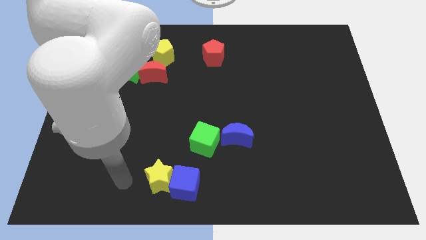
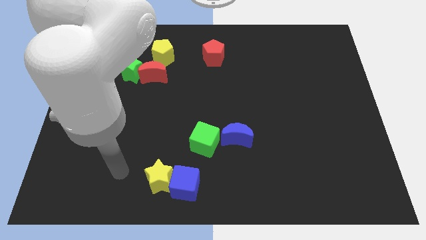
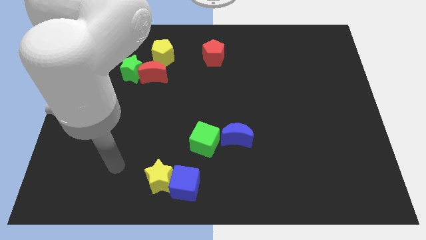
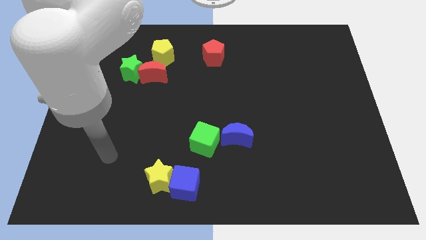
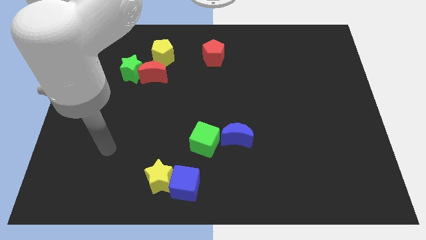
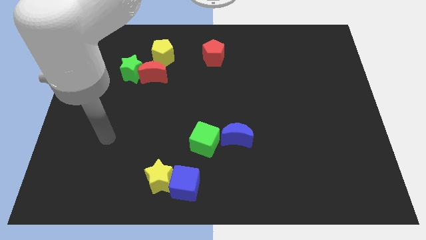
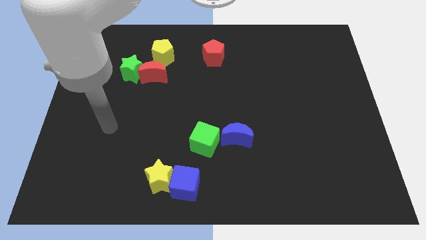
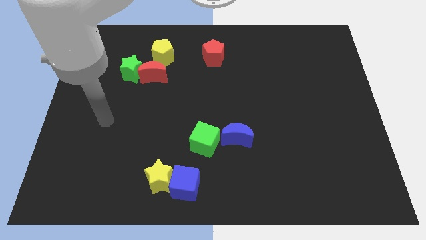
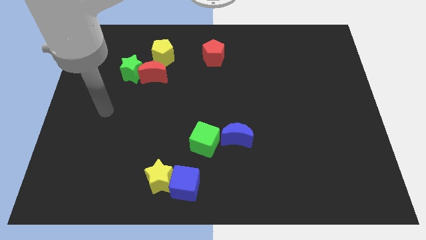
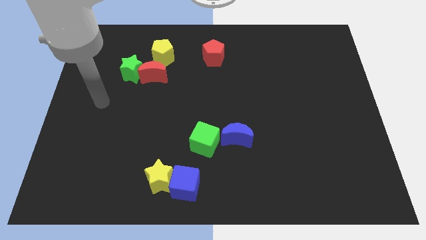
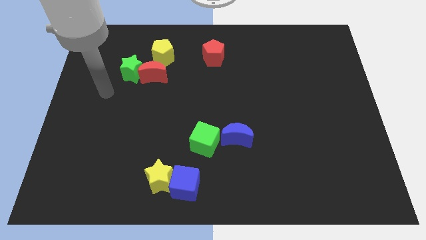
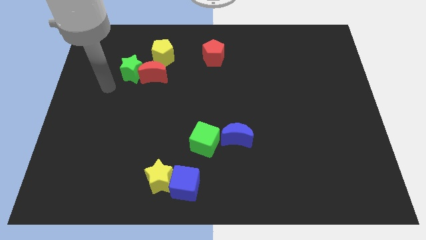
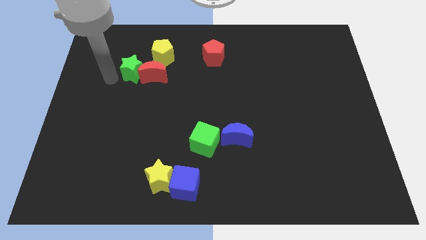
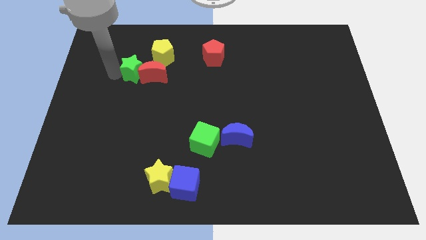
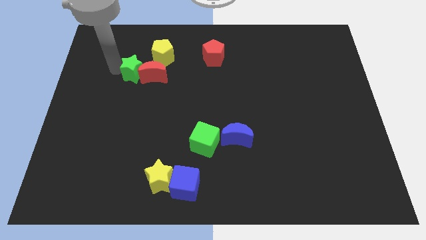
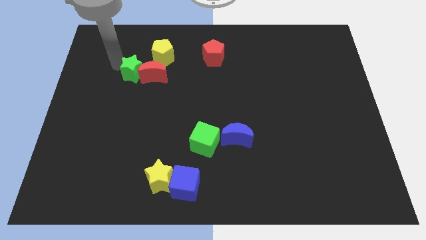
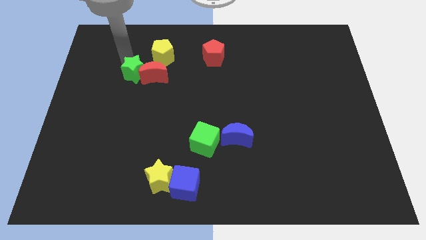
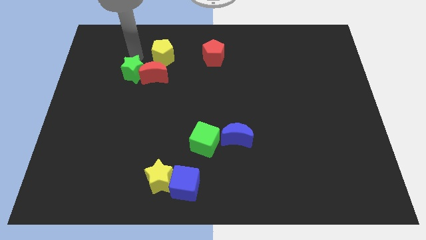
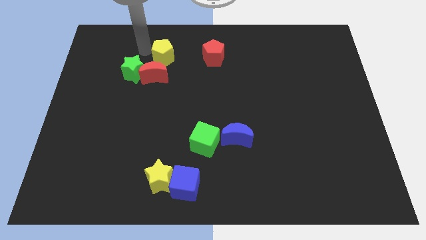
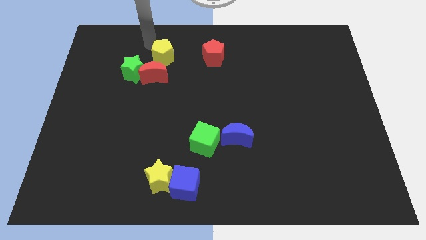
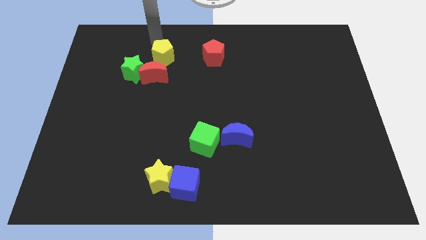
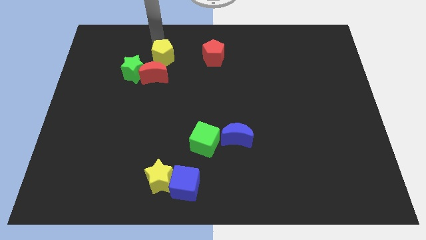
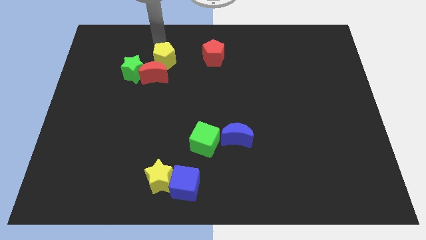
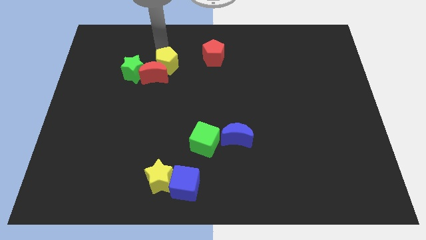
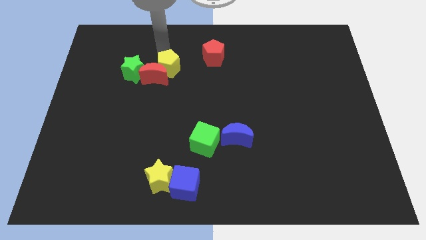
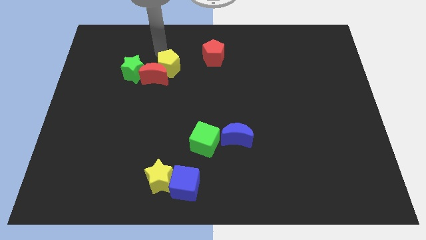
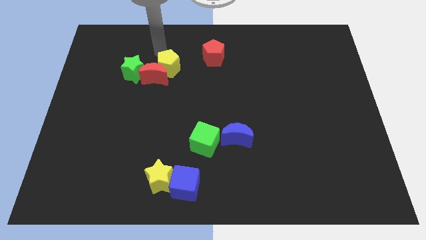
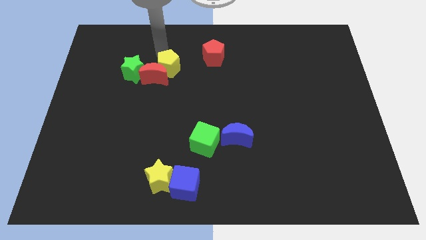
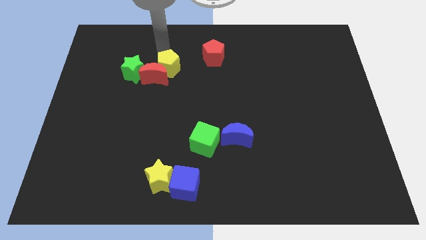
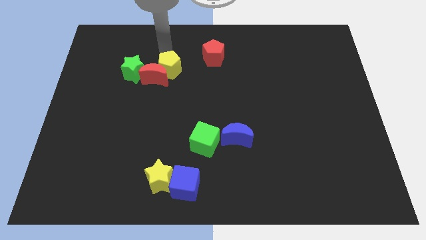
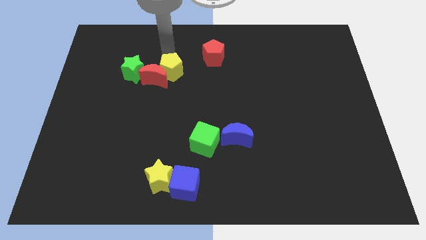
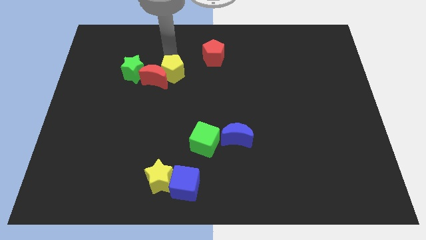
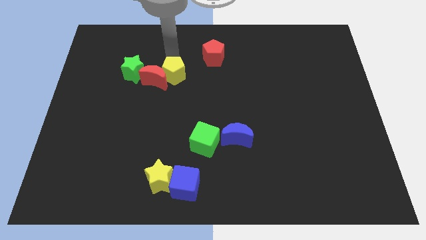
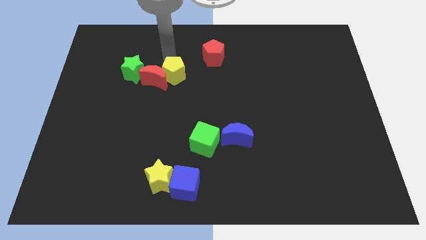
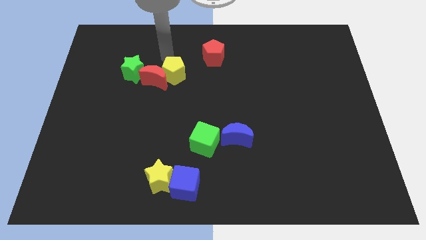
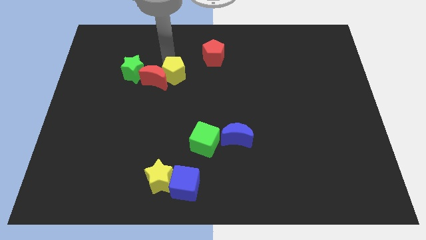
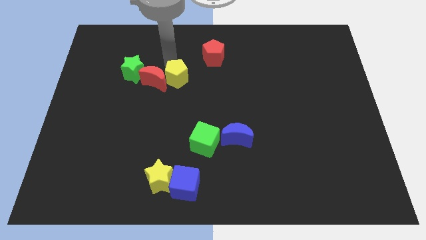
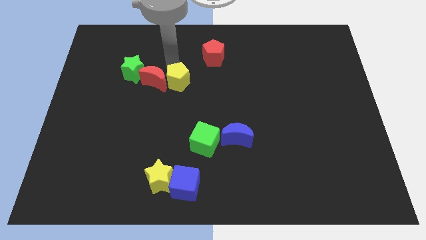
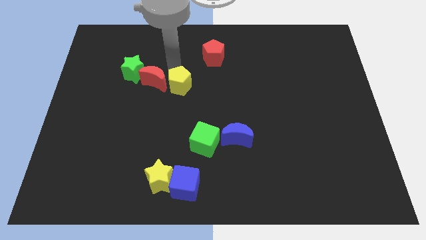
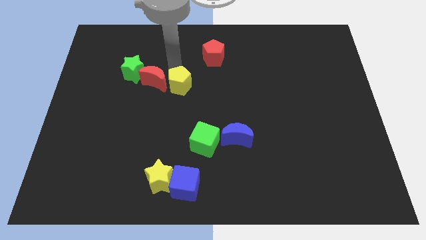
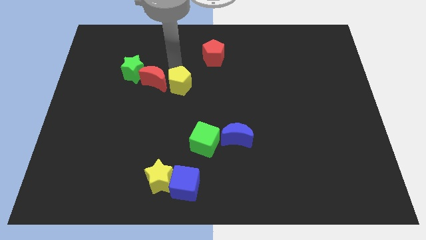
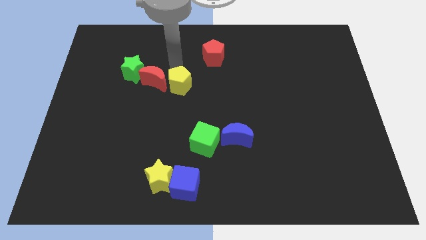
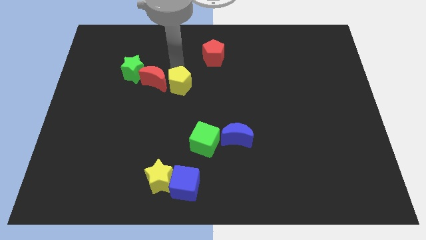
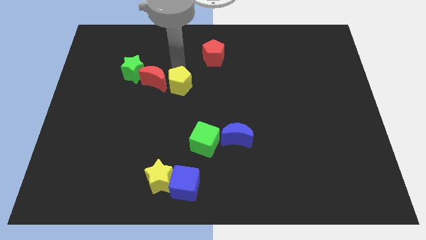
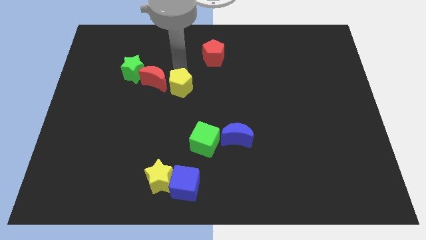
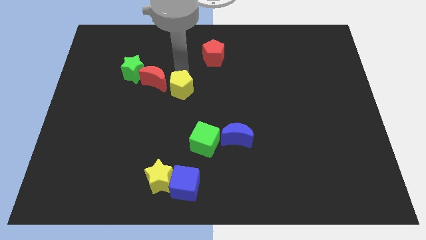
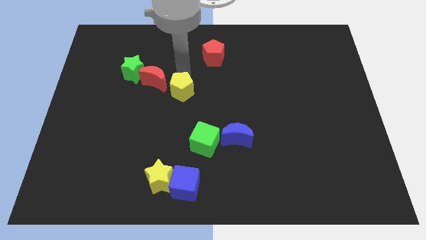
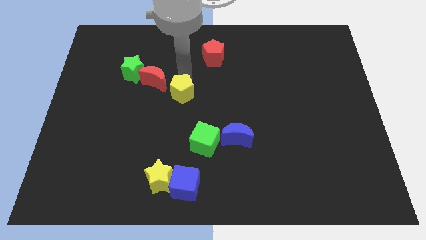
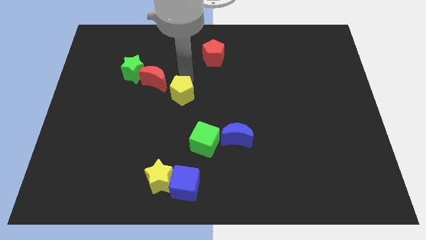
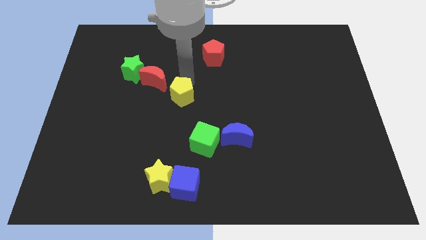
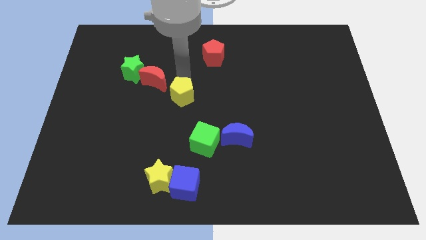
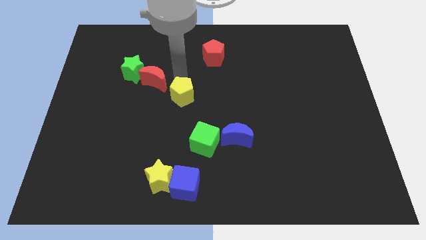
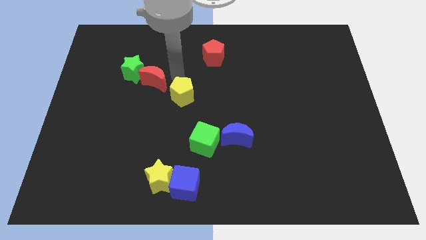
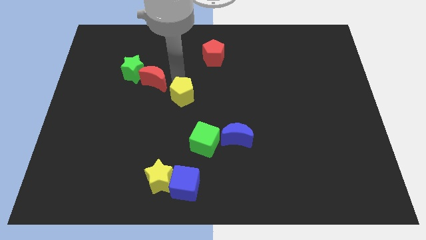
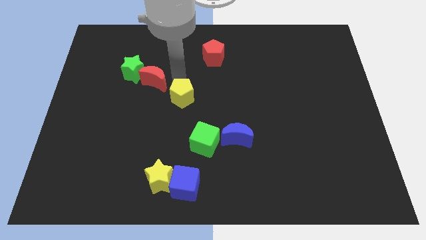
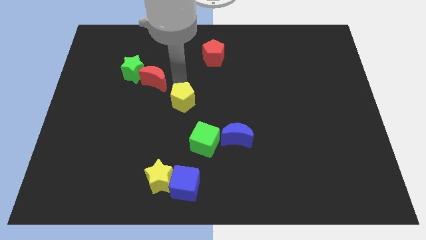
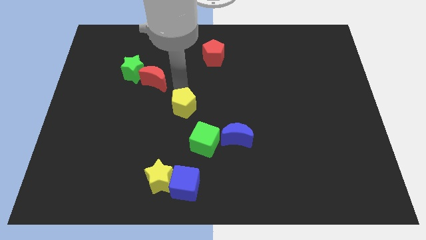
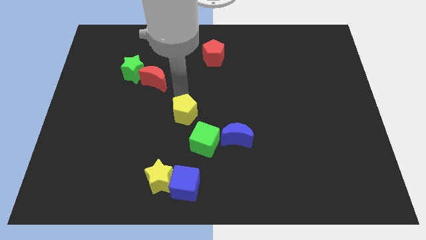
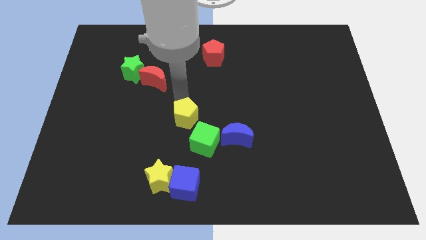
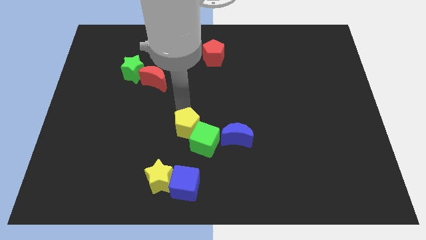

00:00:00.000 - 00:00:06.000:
push the yellow pentagon close to the green cube

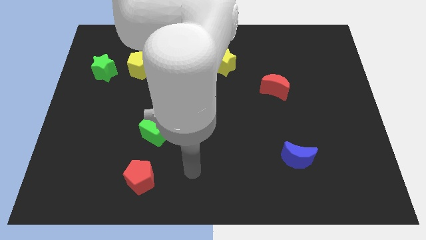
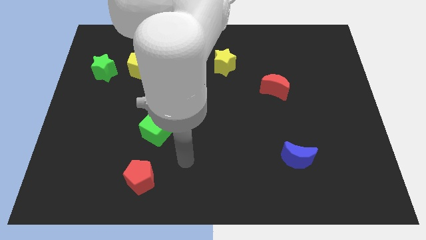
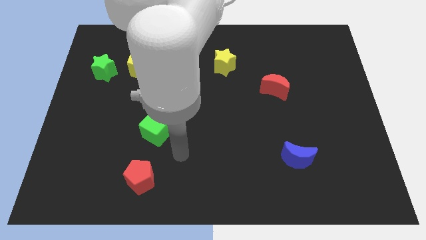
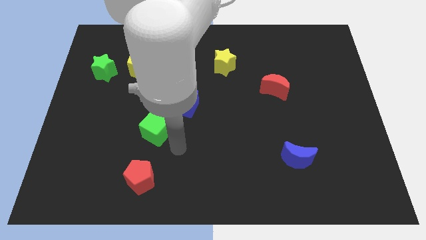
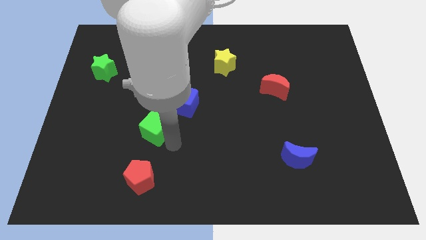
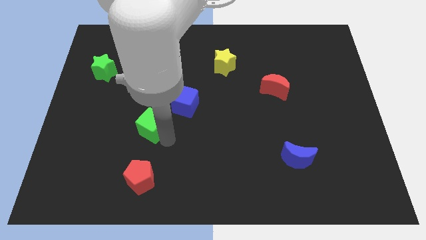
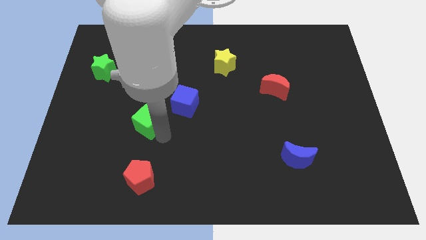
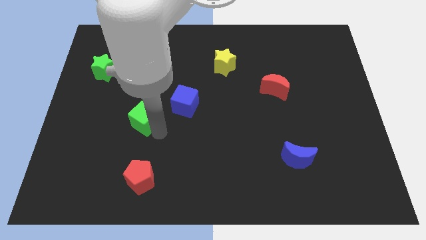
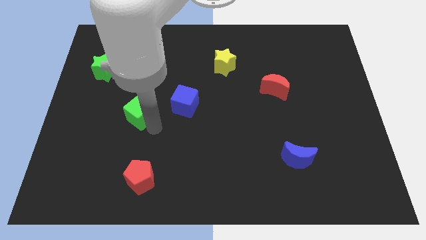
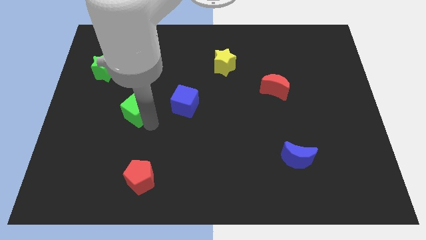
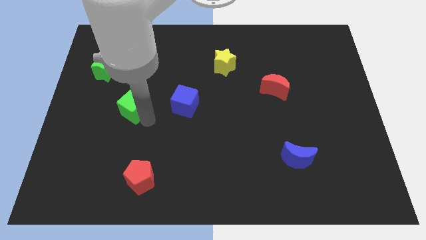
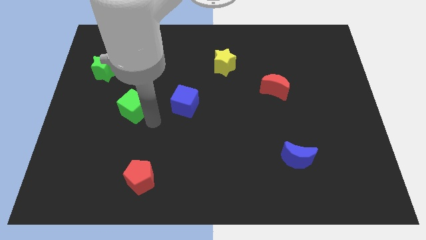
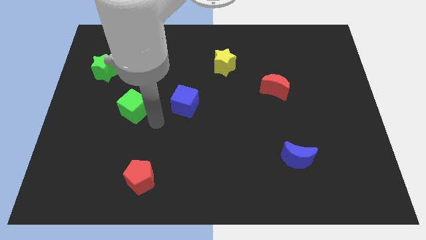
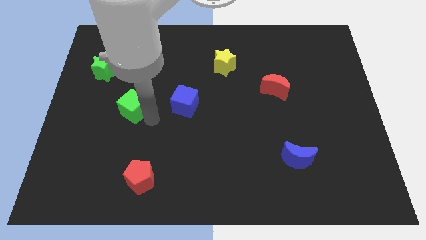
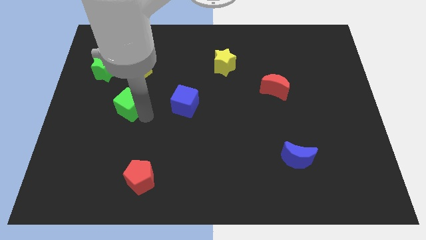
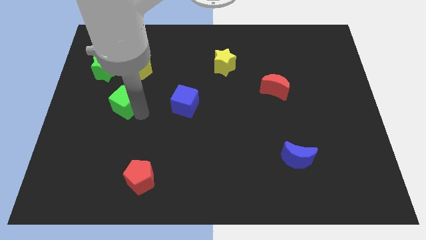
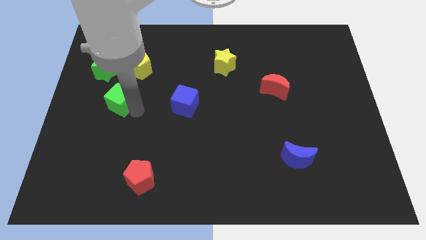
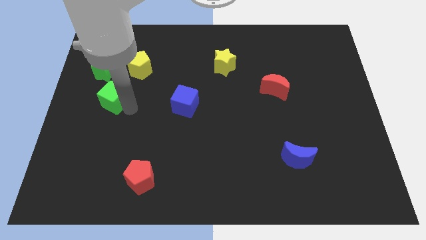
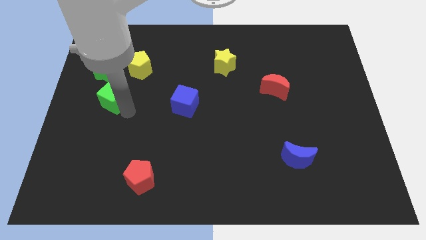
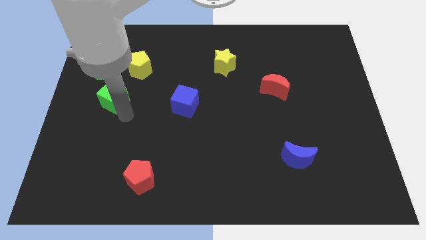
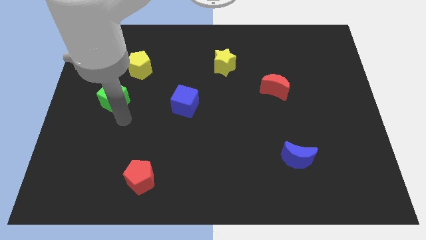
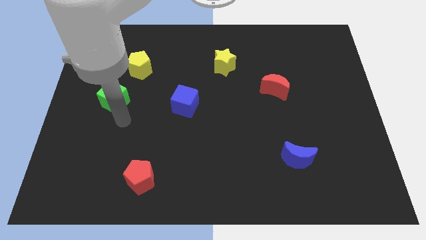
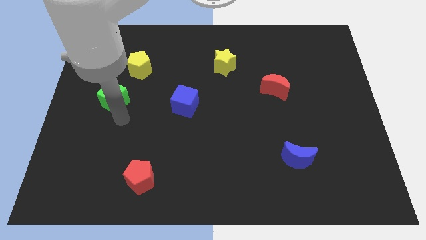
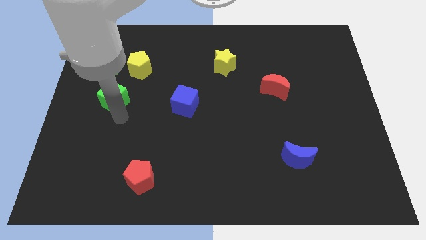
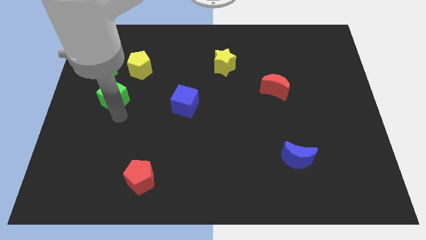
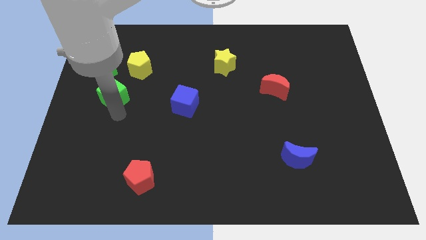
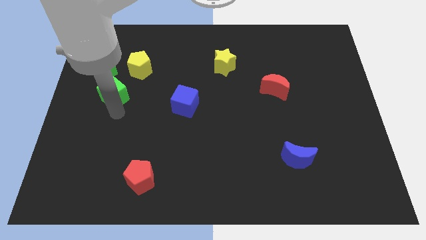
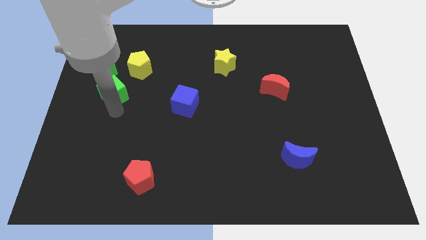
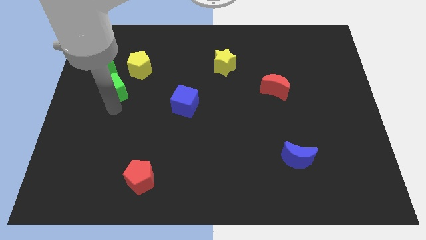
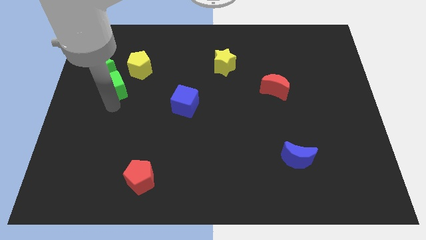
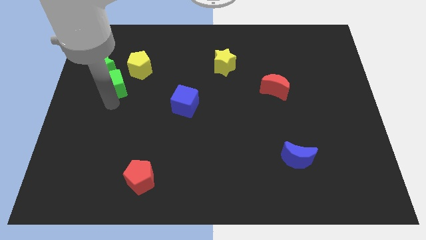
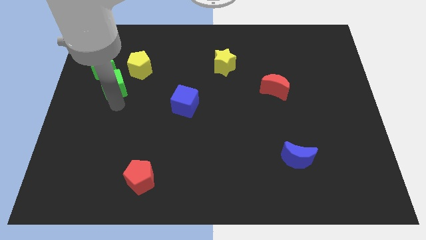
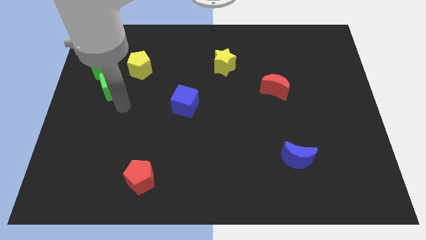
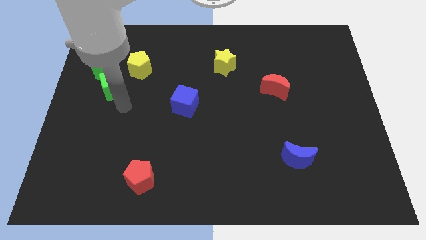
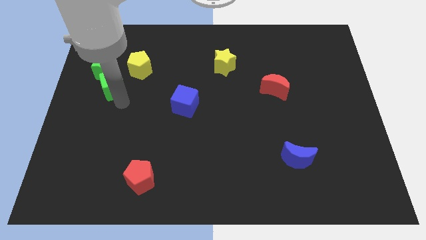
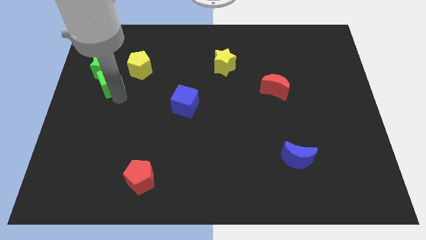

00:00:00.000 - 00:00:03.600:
slide the green cube towards the green star
